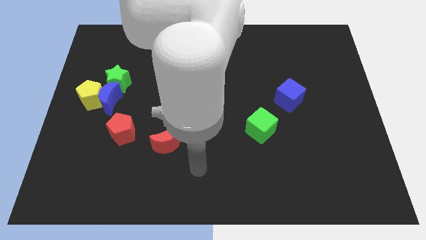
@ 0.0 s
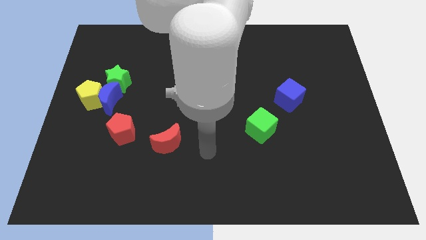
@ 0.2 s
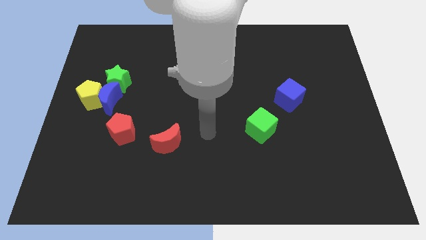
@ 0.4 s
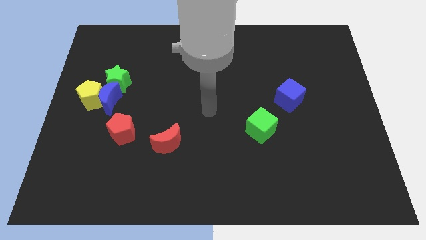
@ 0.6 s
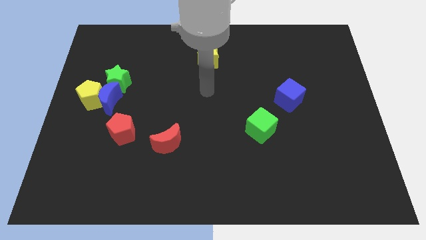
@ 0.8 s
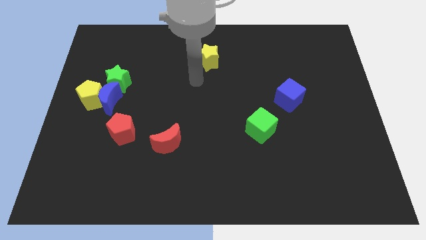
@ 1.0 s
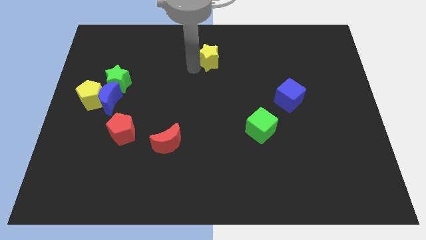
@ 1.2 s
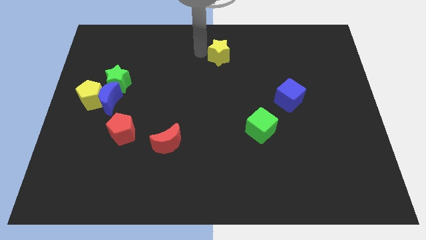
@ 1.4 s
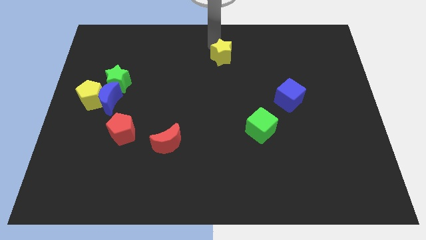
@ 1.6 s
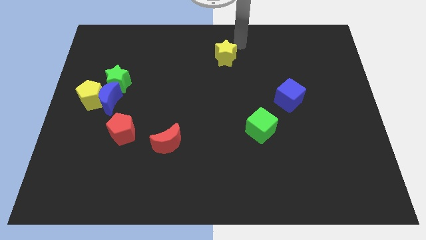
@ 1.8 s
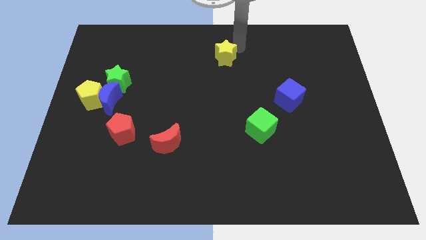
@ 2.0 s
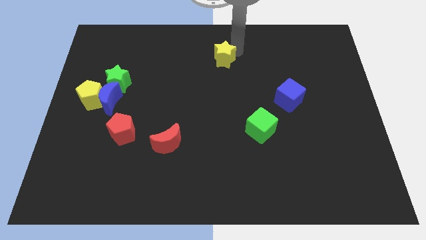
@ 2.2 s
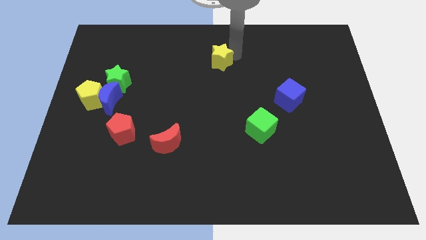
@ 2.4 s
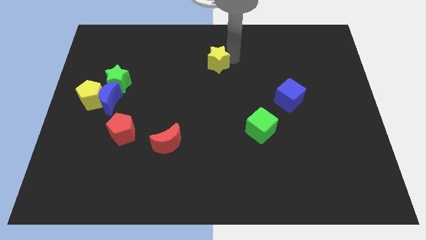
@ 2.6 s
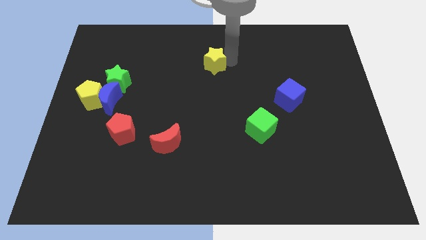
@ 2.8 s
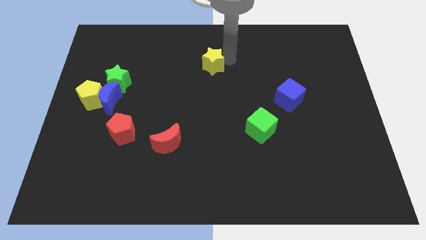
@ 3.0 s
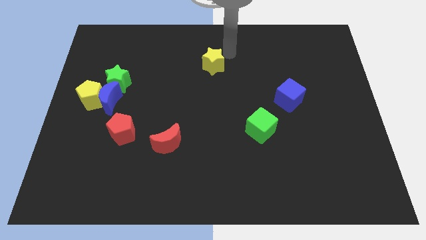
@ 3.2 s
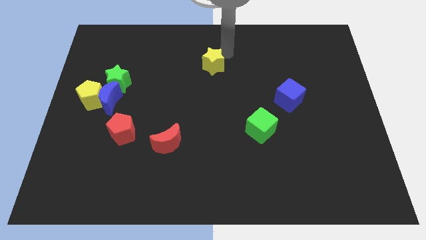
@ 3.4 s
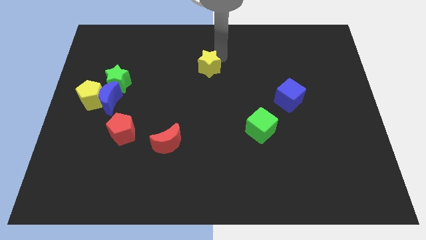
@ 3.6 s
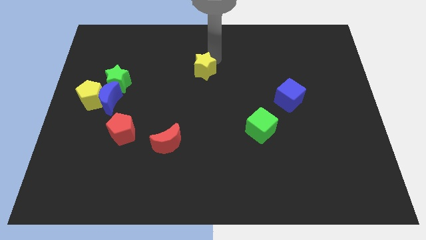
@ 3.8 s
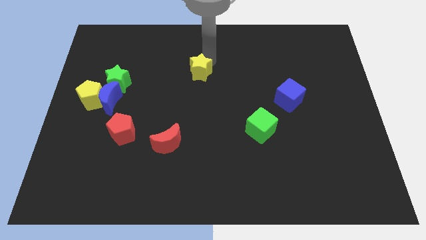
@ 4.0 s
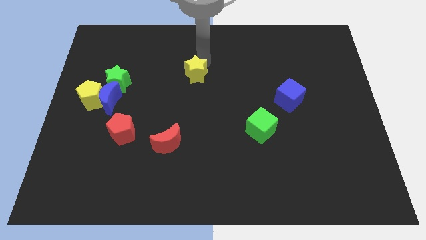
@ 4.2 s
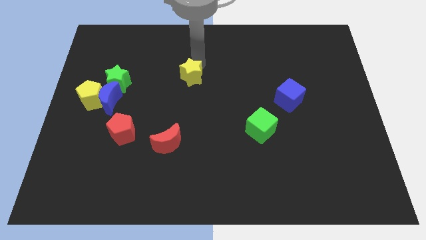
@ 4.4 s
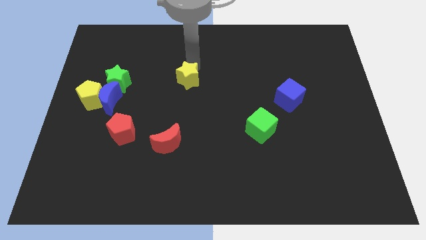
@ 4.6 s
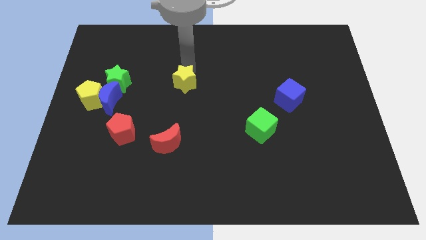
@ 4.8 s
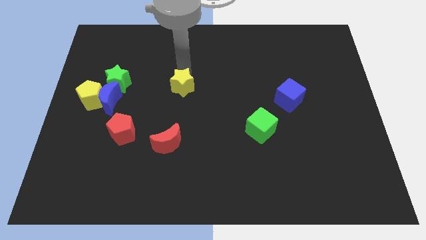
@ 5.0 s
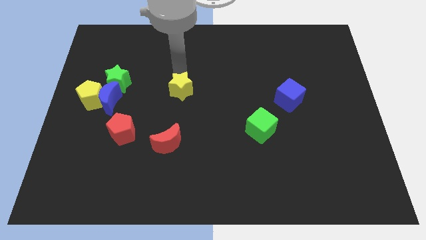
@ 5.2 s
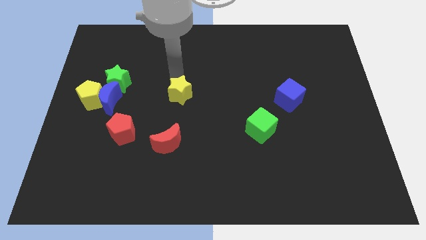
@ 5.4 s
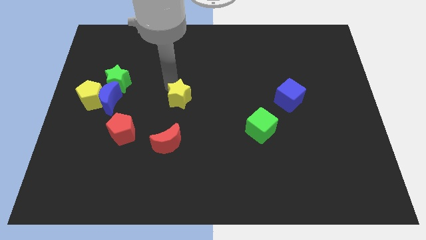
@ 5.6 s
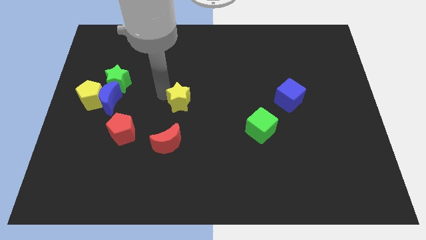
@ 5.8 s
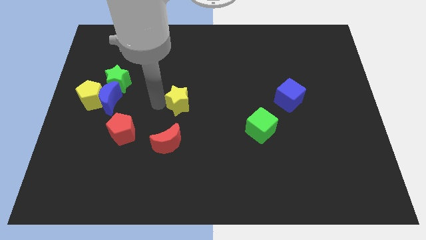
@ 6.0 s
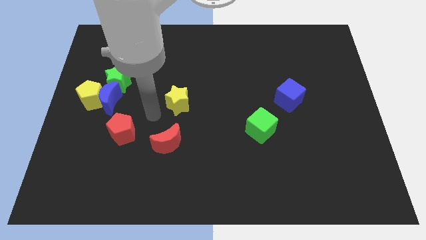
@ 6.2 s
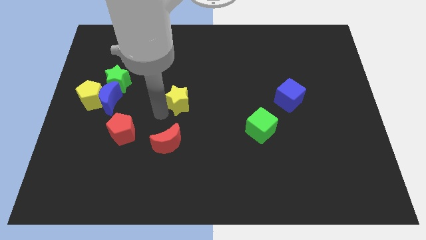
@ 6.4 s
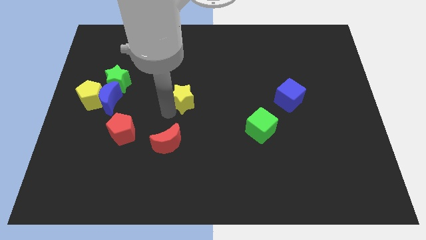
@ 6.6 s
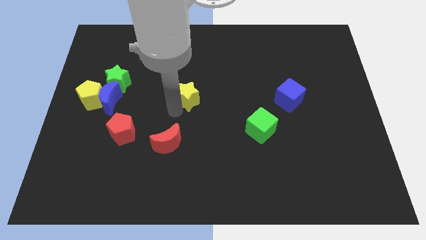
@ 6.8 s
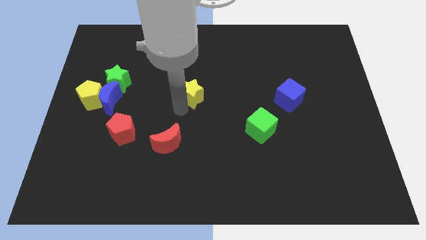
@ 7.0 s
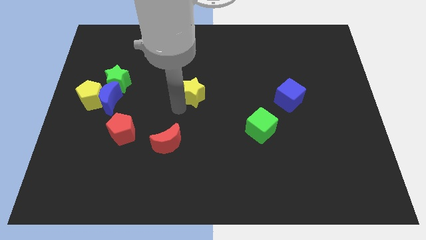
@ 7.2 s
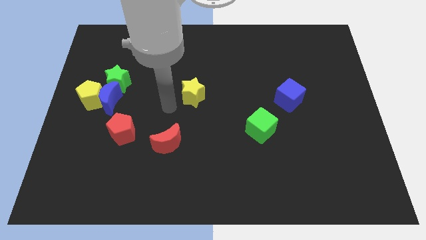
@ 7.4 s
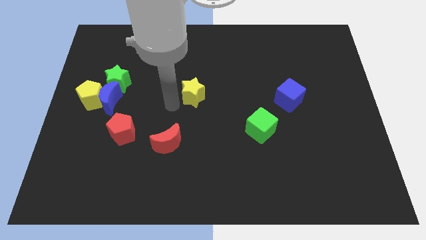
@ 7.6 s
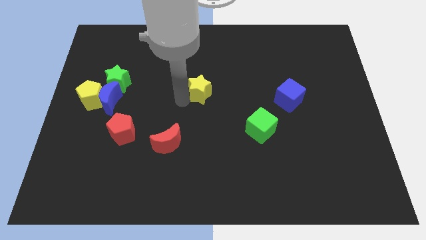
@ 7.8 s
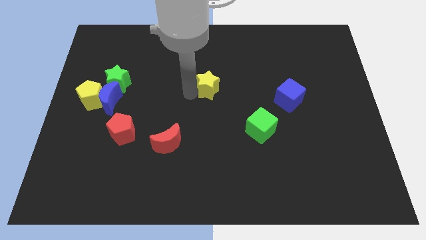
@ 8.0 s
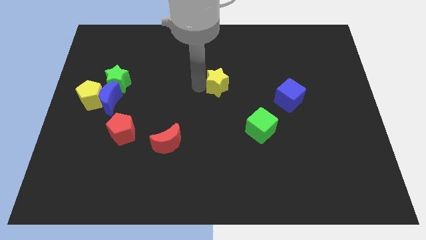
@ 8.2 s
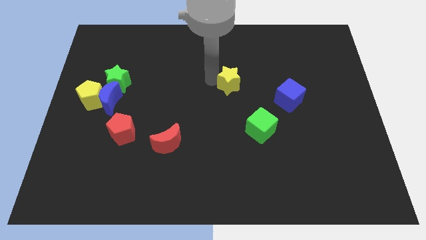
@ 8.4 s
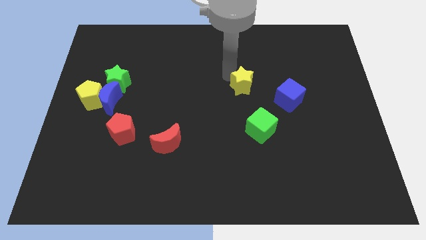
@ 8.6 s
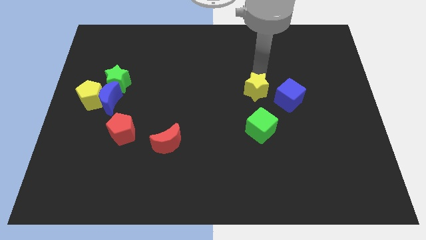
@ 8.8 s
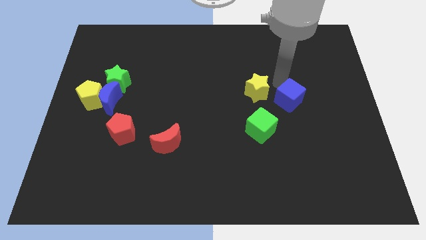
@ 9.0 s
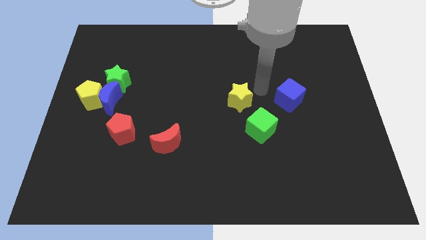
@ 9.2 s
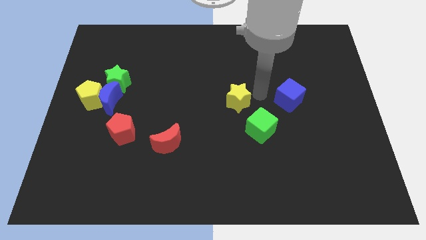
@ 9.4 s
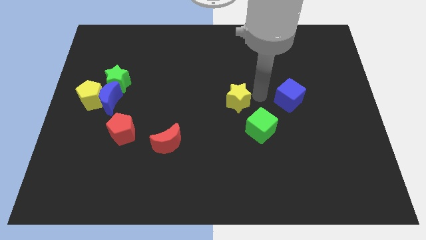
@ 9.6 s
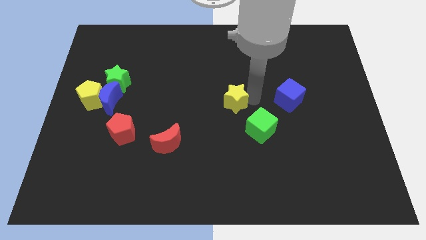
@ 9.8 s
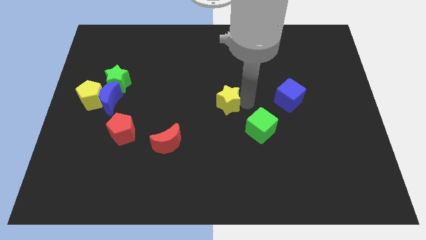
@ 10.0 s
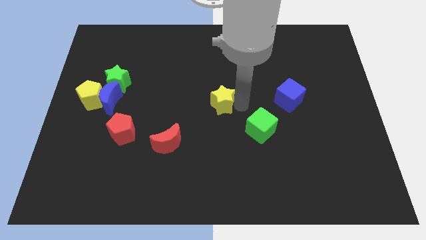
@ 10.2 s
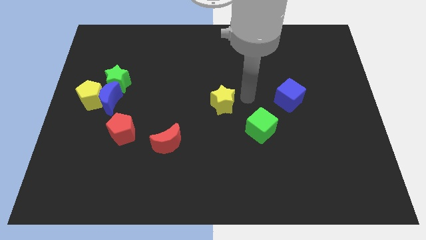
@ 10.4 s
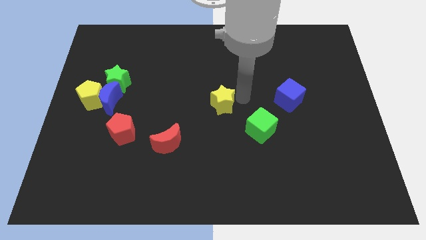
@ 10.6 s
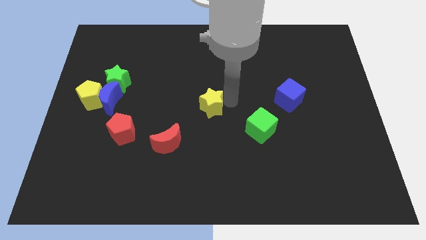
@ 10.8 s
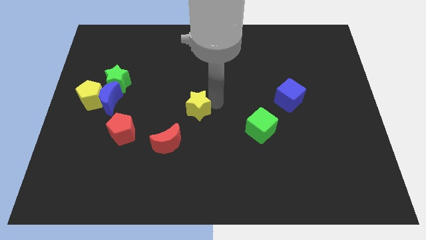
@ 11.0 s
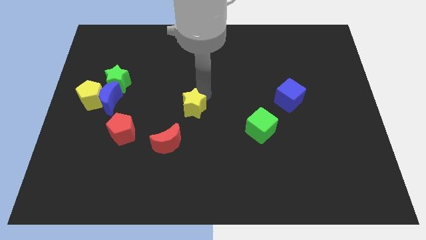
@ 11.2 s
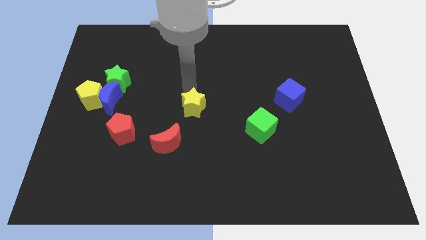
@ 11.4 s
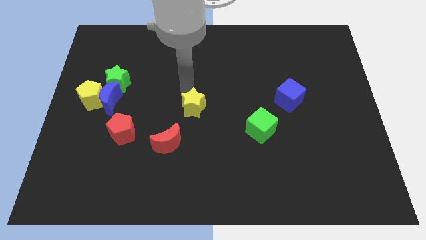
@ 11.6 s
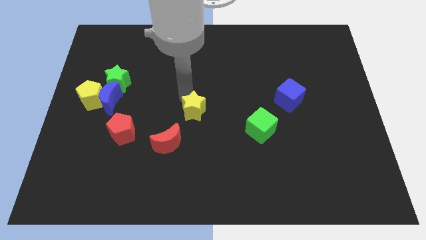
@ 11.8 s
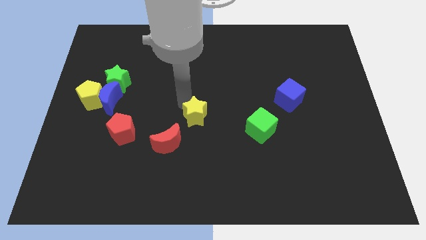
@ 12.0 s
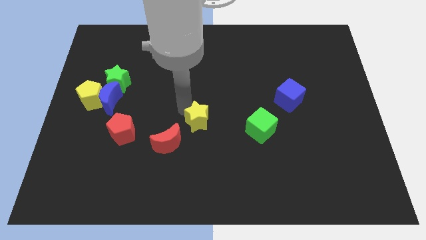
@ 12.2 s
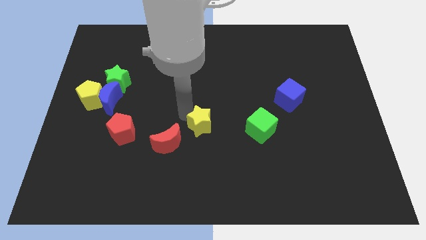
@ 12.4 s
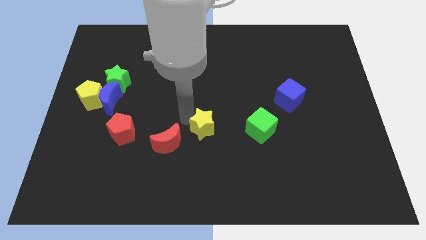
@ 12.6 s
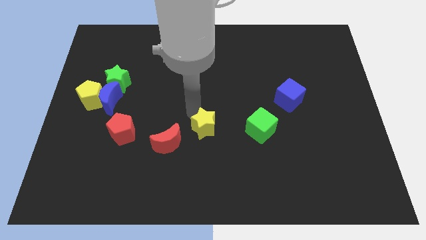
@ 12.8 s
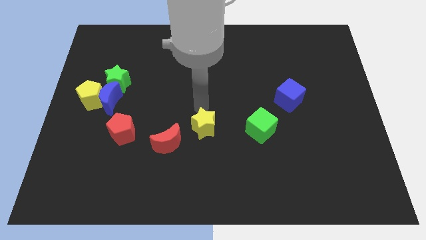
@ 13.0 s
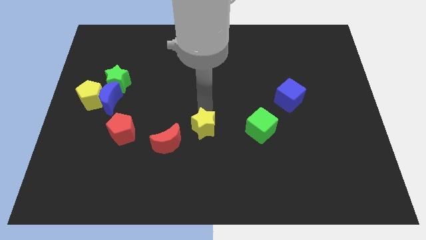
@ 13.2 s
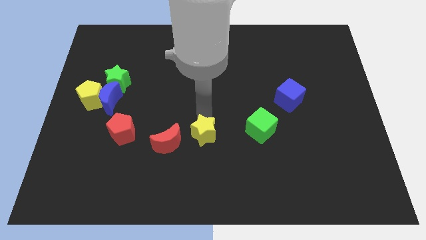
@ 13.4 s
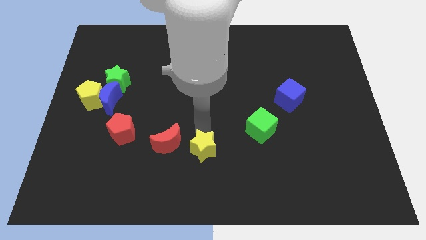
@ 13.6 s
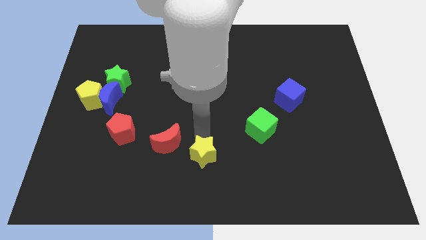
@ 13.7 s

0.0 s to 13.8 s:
slide the yellow star to the bottom
